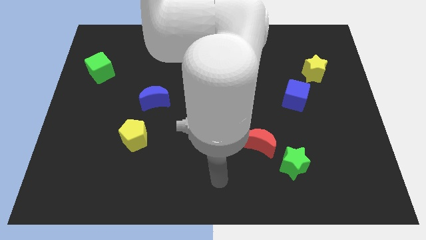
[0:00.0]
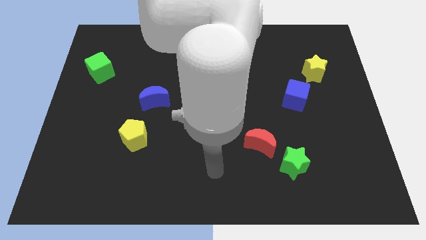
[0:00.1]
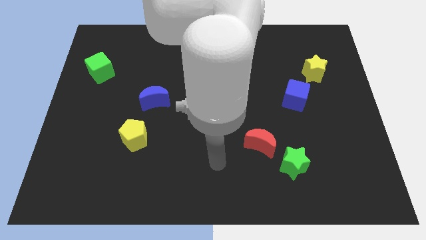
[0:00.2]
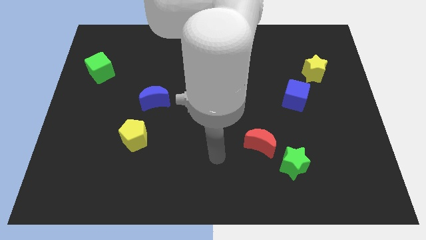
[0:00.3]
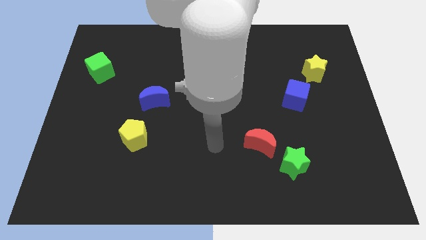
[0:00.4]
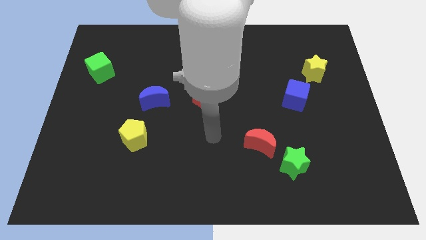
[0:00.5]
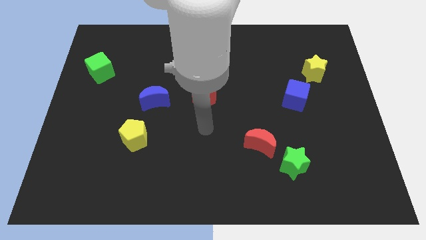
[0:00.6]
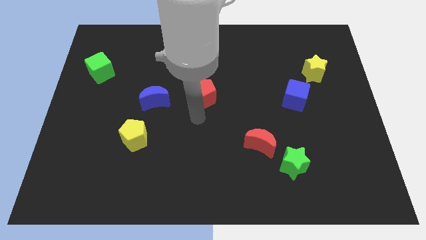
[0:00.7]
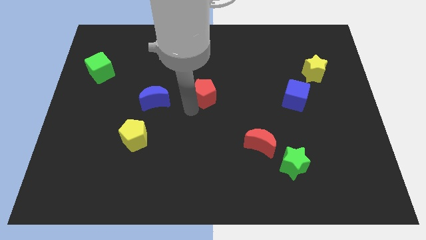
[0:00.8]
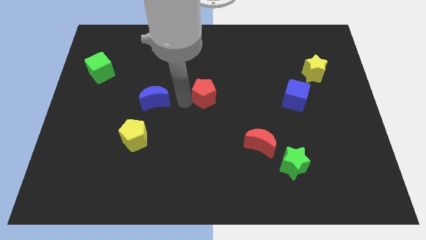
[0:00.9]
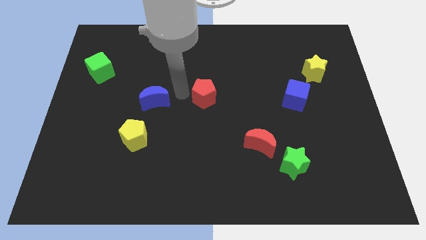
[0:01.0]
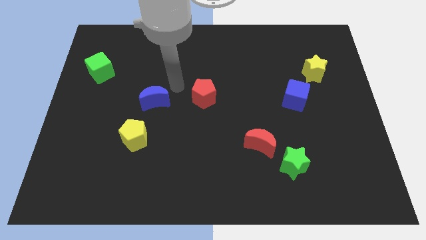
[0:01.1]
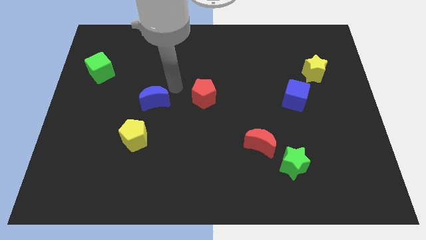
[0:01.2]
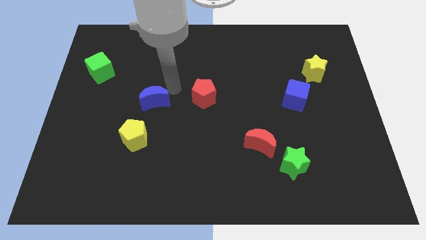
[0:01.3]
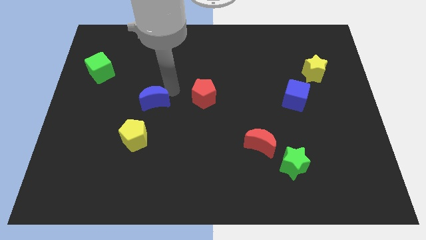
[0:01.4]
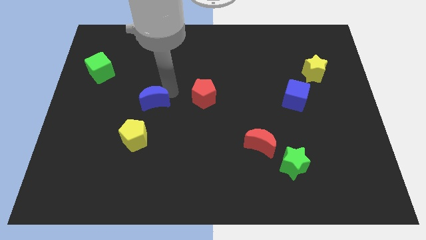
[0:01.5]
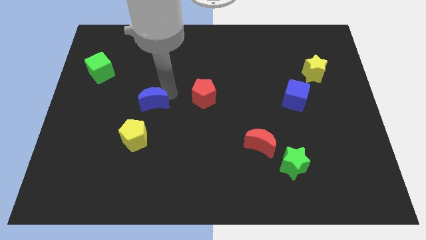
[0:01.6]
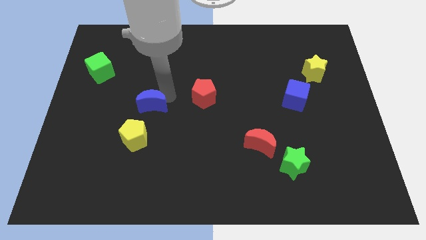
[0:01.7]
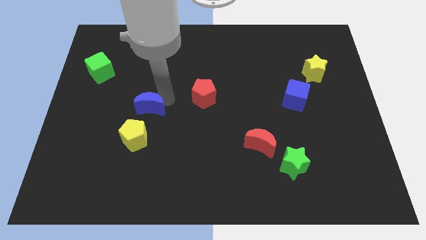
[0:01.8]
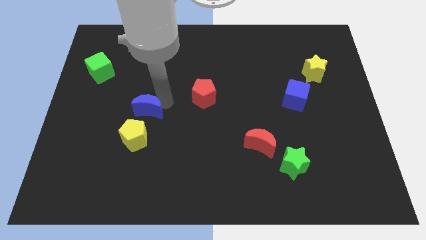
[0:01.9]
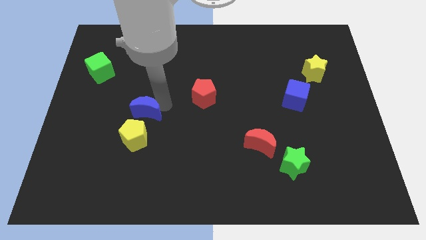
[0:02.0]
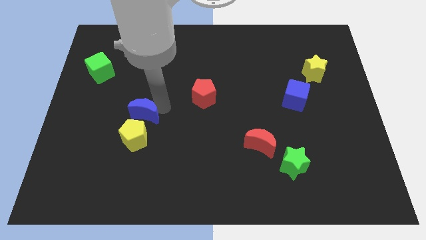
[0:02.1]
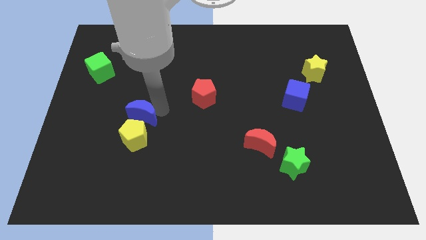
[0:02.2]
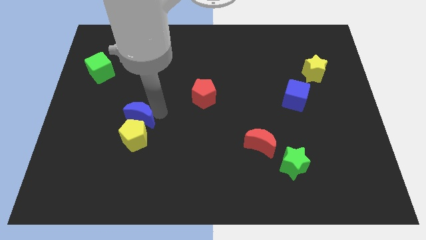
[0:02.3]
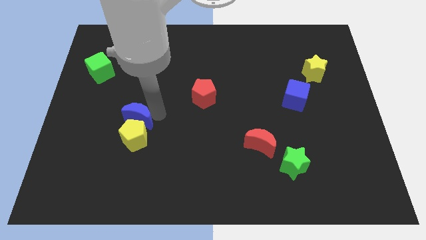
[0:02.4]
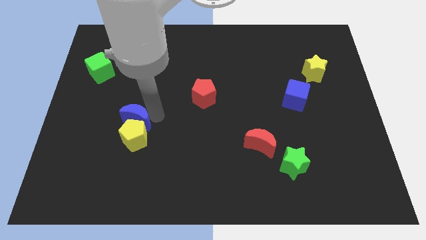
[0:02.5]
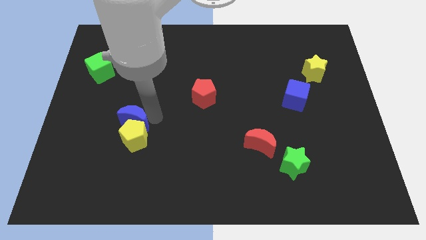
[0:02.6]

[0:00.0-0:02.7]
move the blue moon a bit down and to the left diagonally

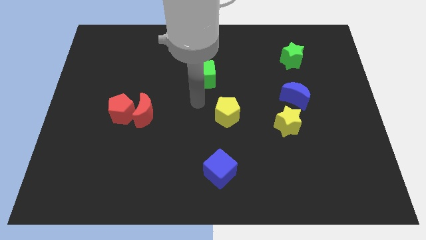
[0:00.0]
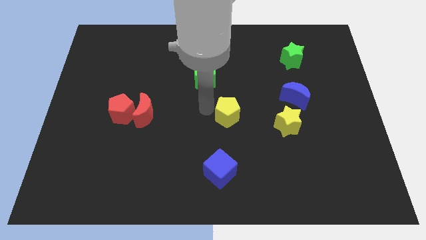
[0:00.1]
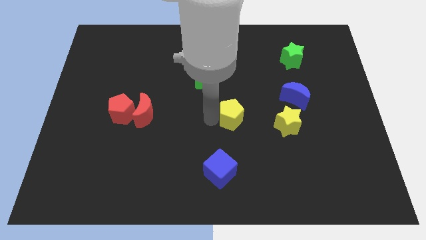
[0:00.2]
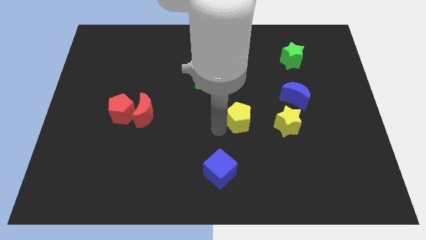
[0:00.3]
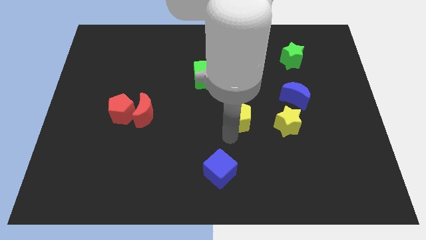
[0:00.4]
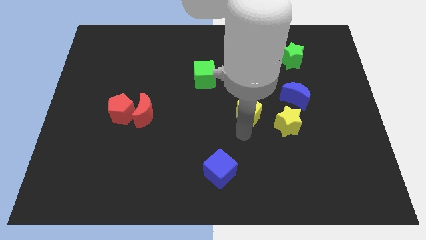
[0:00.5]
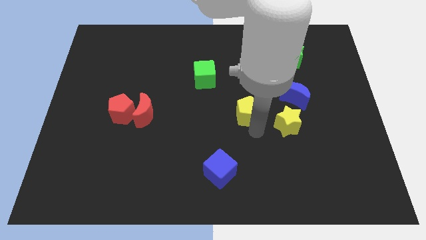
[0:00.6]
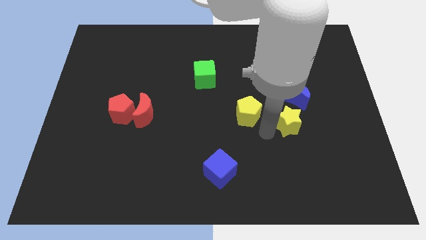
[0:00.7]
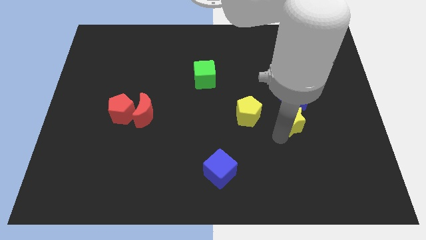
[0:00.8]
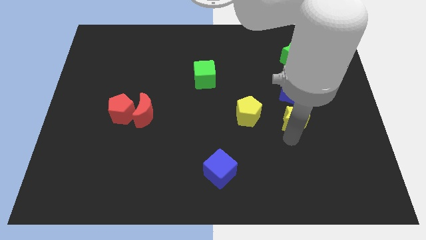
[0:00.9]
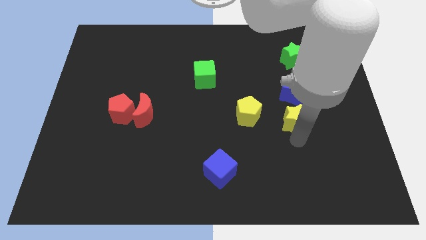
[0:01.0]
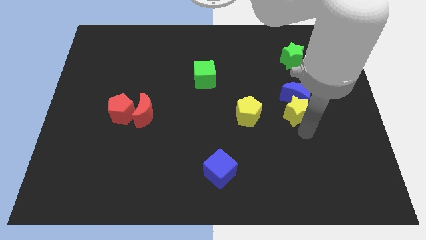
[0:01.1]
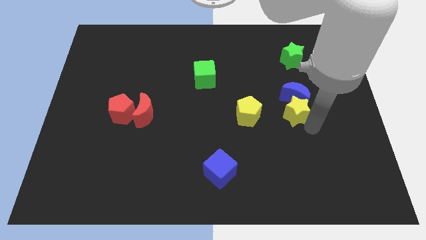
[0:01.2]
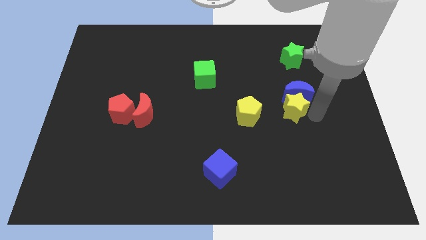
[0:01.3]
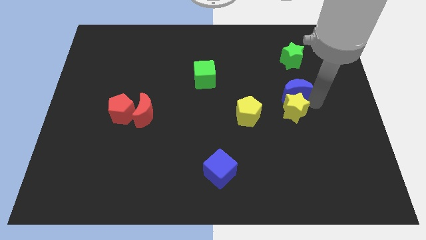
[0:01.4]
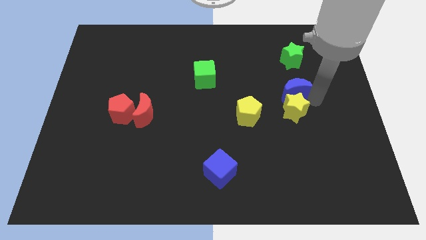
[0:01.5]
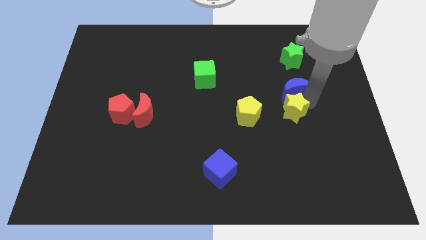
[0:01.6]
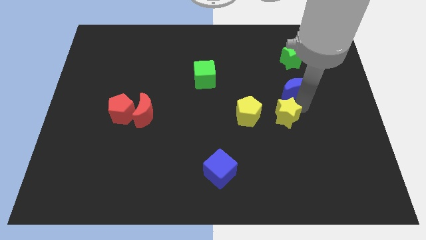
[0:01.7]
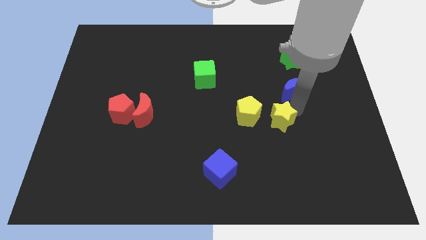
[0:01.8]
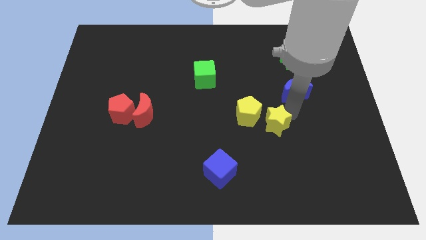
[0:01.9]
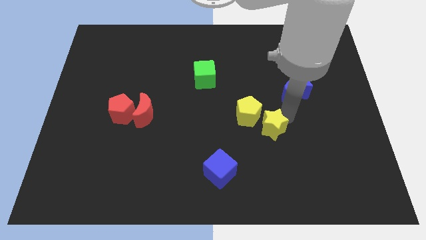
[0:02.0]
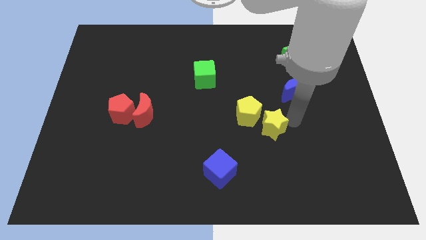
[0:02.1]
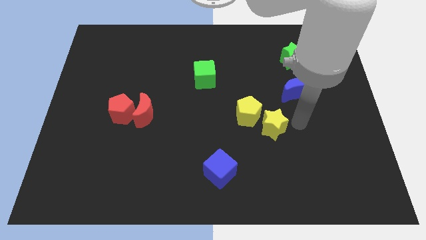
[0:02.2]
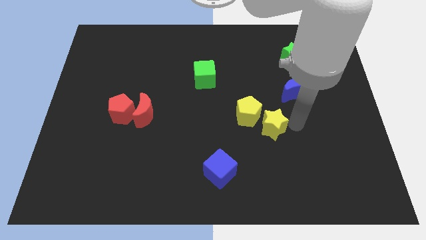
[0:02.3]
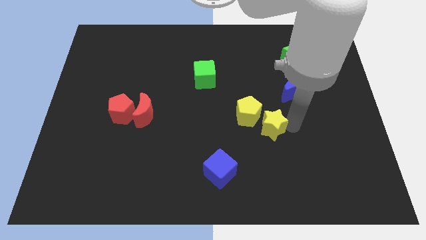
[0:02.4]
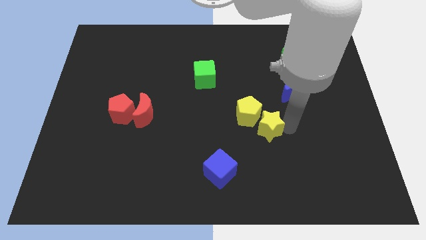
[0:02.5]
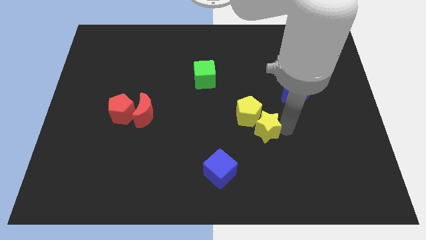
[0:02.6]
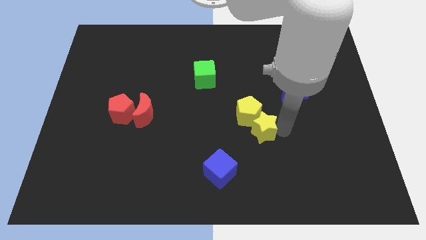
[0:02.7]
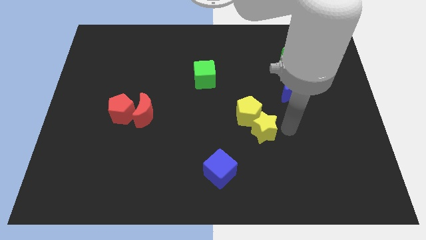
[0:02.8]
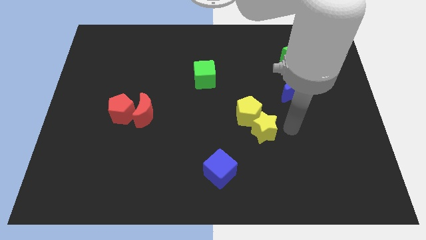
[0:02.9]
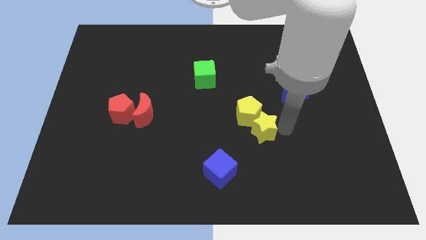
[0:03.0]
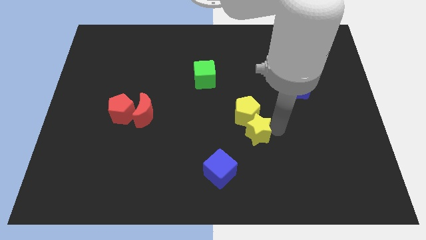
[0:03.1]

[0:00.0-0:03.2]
slide the yellow star left a bit

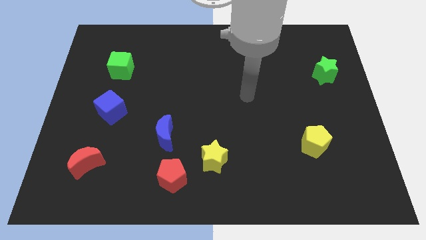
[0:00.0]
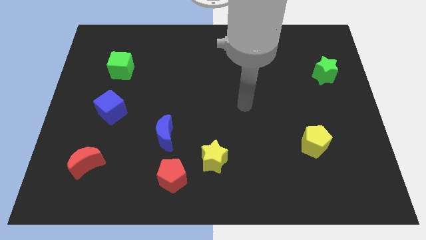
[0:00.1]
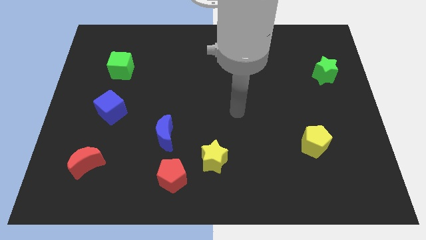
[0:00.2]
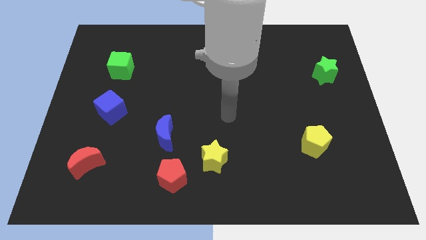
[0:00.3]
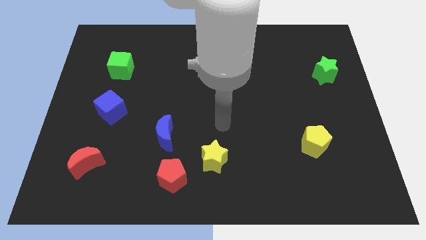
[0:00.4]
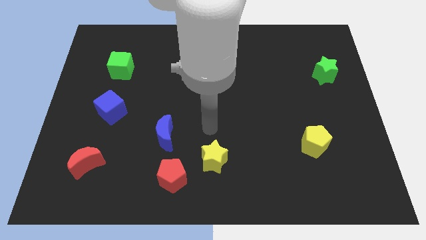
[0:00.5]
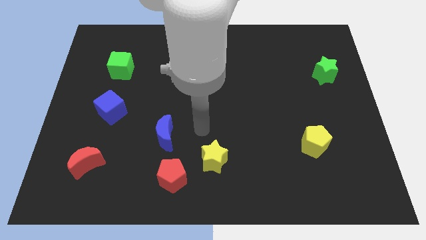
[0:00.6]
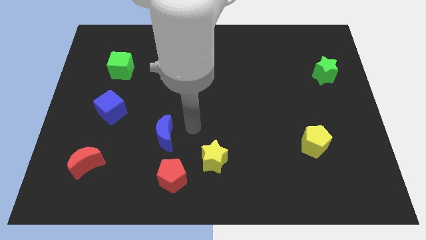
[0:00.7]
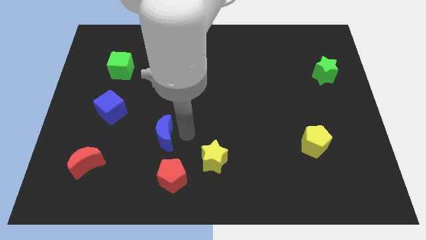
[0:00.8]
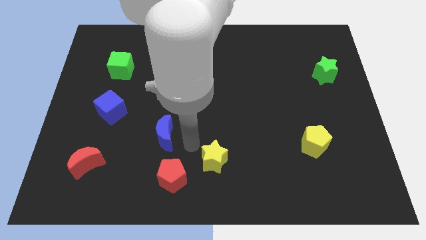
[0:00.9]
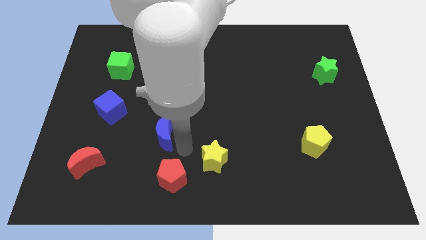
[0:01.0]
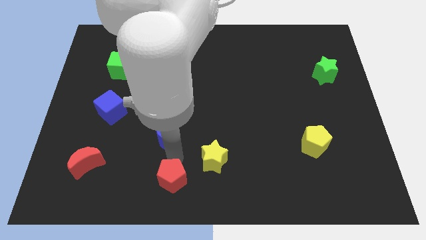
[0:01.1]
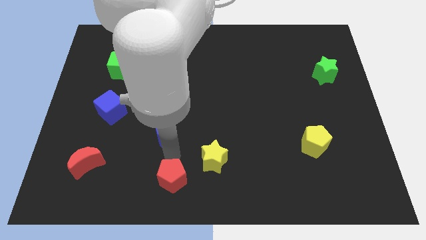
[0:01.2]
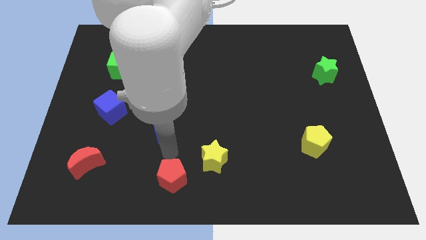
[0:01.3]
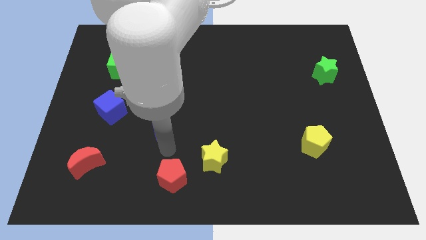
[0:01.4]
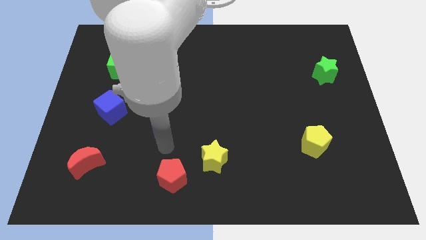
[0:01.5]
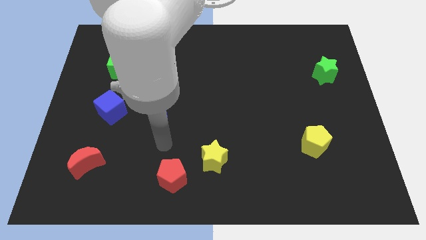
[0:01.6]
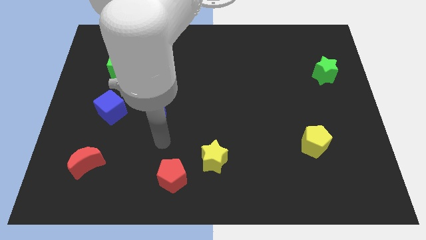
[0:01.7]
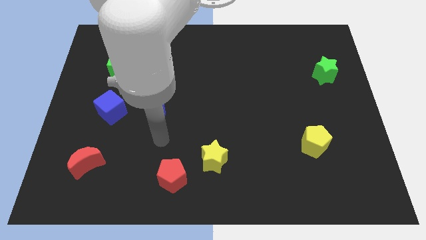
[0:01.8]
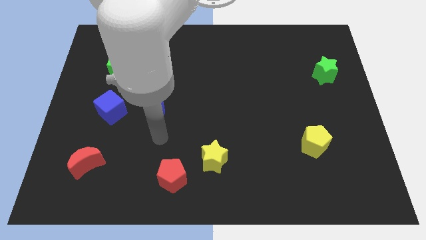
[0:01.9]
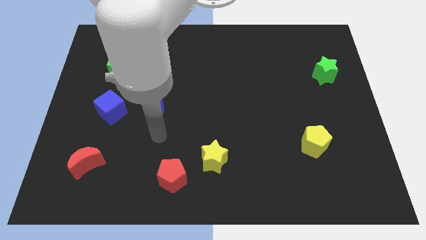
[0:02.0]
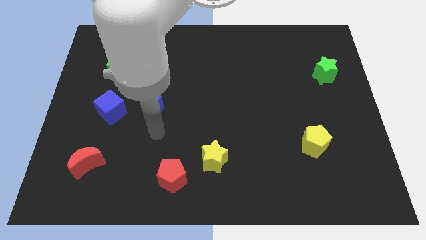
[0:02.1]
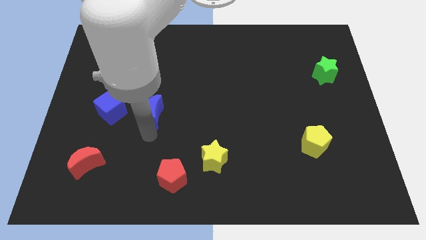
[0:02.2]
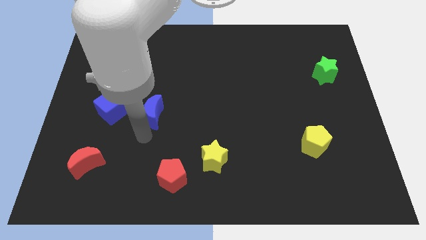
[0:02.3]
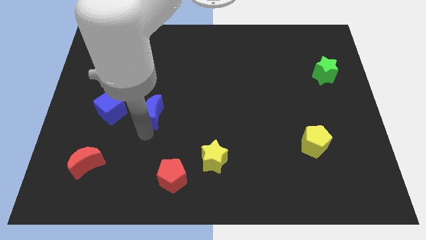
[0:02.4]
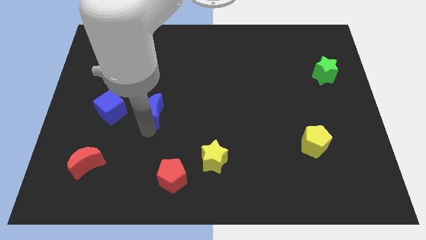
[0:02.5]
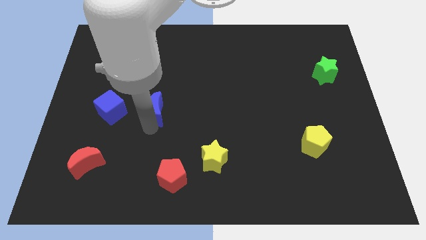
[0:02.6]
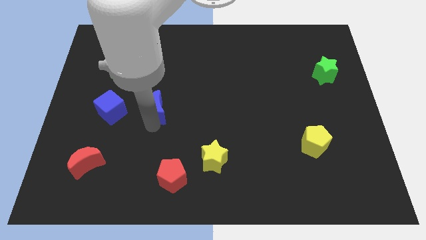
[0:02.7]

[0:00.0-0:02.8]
slightly move the blue moon upwards
